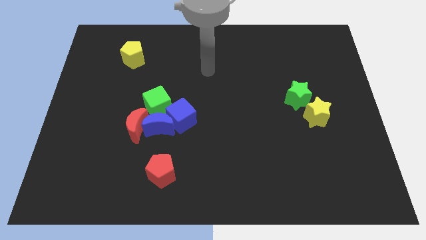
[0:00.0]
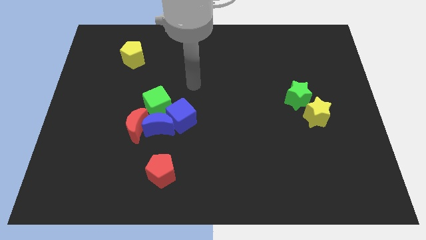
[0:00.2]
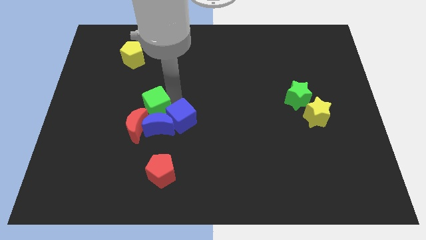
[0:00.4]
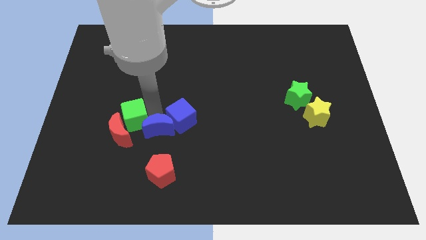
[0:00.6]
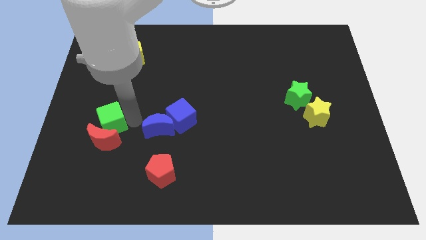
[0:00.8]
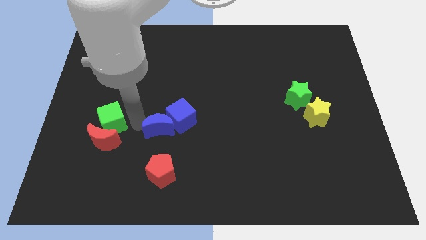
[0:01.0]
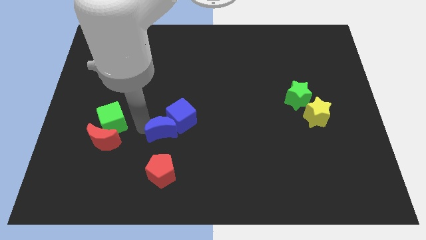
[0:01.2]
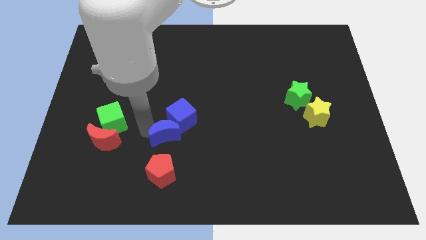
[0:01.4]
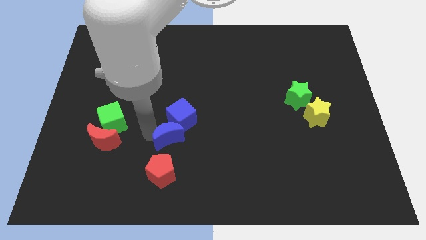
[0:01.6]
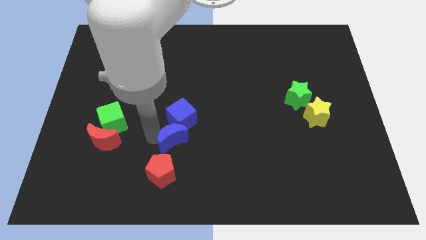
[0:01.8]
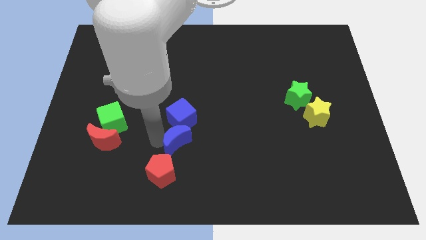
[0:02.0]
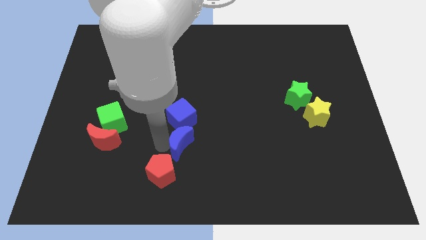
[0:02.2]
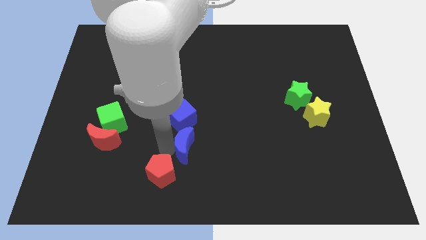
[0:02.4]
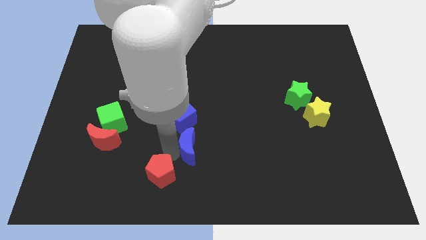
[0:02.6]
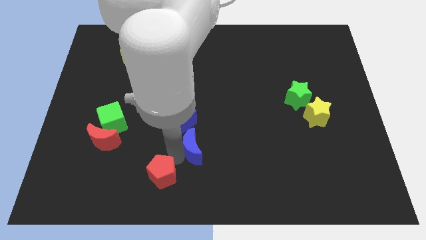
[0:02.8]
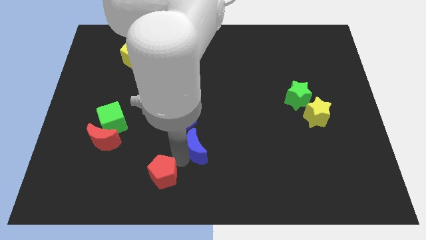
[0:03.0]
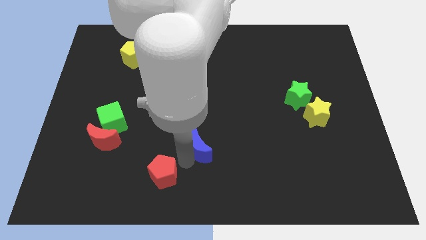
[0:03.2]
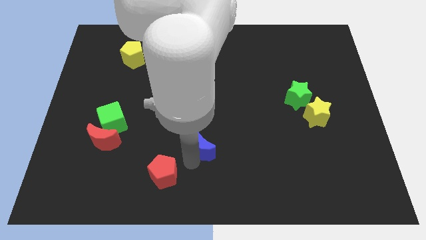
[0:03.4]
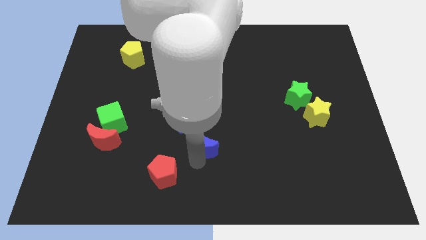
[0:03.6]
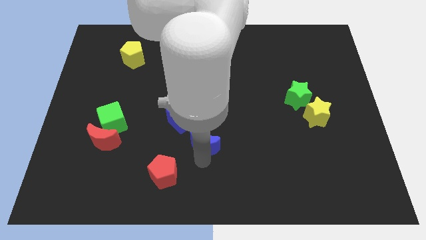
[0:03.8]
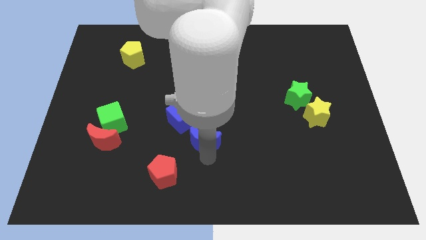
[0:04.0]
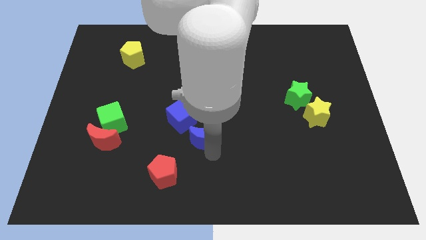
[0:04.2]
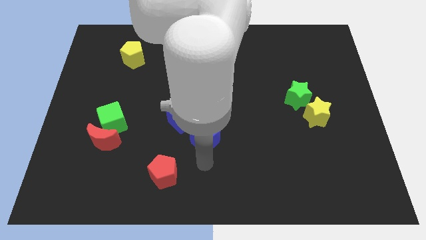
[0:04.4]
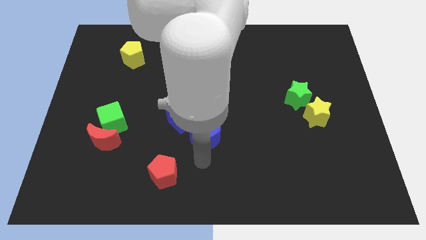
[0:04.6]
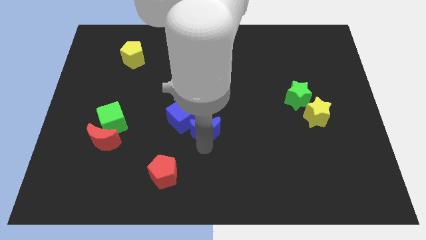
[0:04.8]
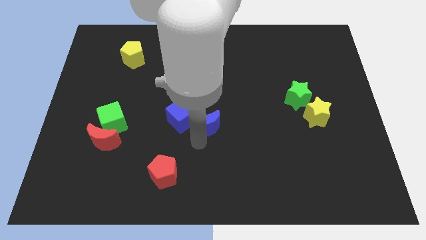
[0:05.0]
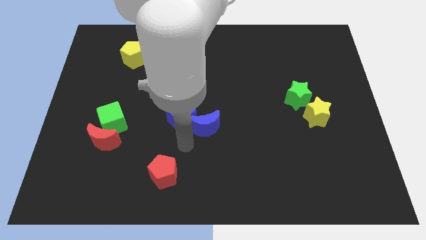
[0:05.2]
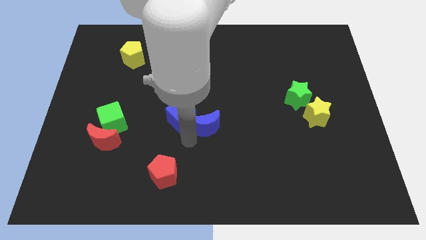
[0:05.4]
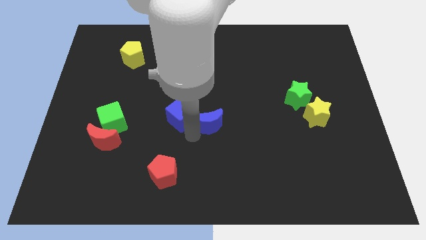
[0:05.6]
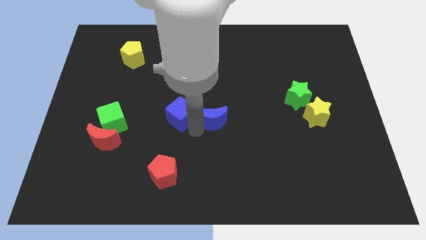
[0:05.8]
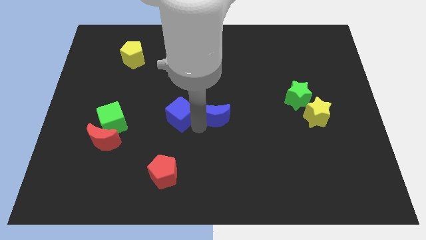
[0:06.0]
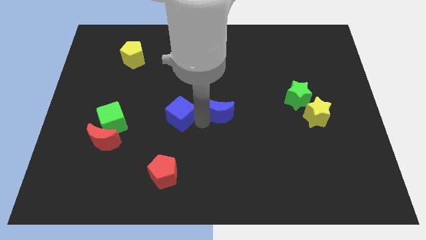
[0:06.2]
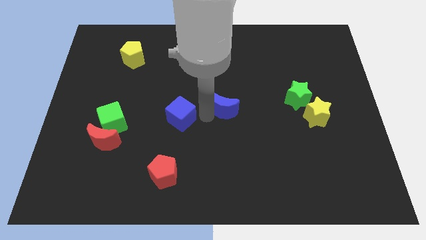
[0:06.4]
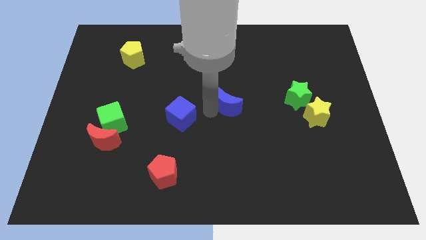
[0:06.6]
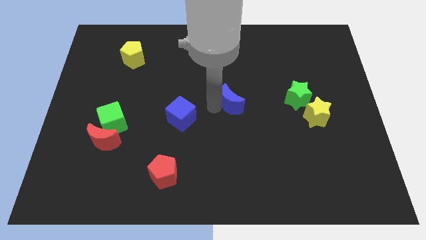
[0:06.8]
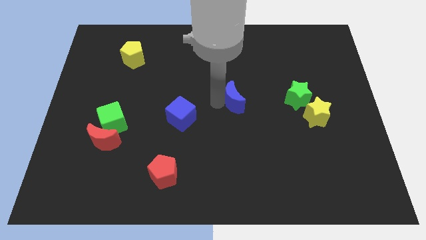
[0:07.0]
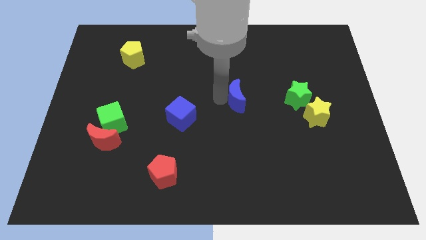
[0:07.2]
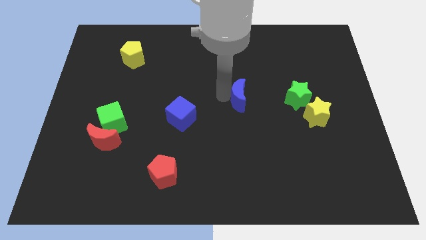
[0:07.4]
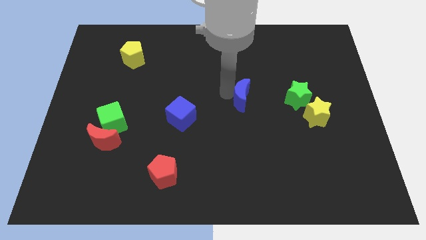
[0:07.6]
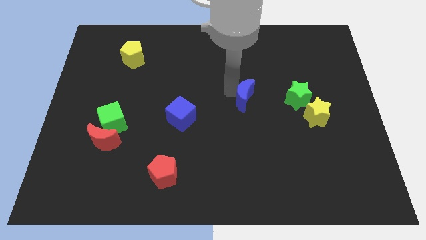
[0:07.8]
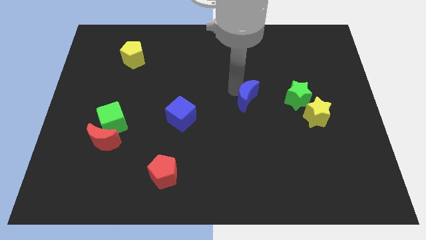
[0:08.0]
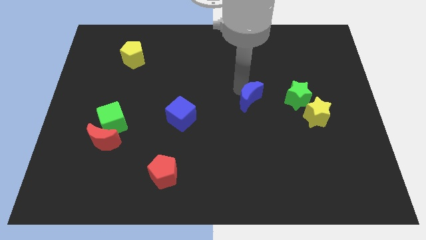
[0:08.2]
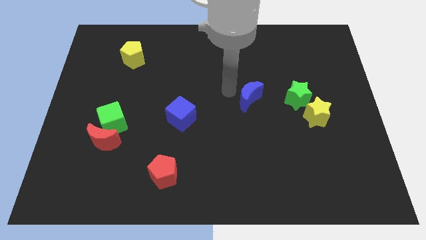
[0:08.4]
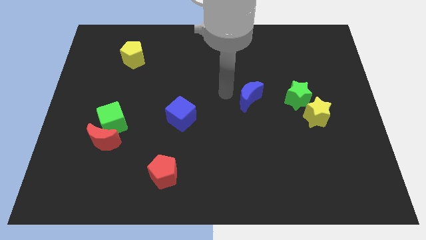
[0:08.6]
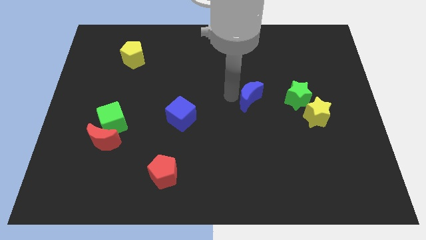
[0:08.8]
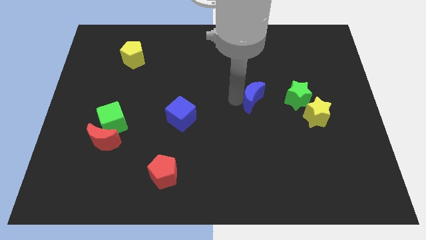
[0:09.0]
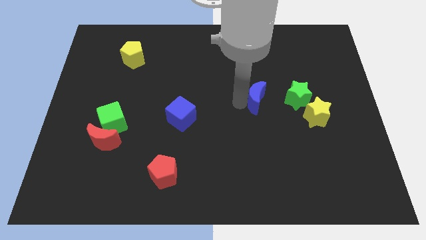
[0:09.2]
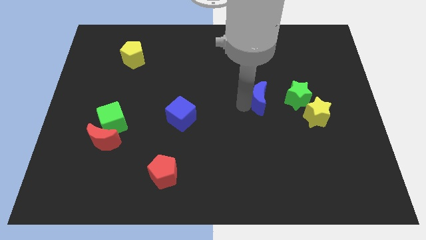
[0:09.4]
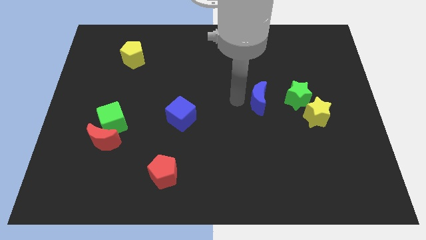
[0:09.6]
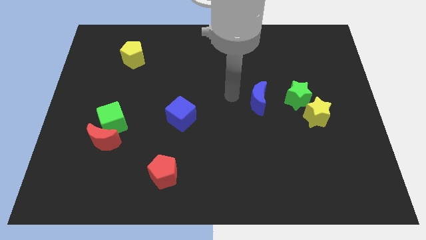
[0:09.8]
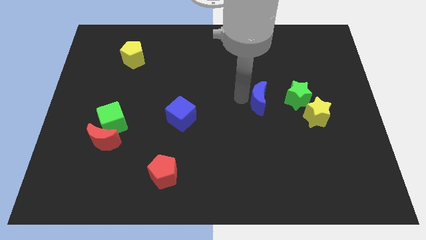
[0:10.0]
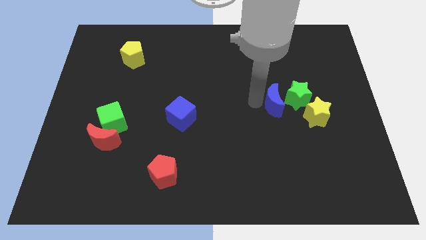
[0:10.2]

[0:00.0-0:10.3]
slide the blue moon close to the green star

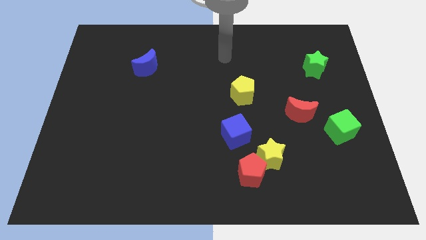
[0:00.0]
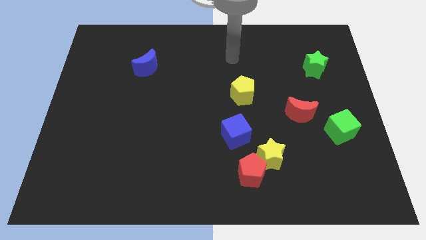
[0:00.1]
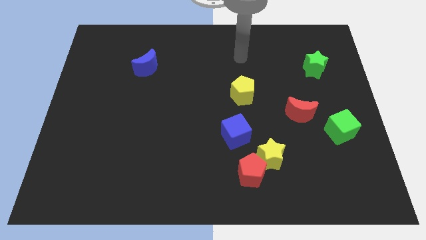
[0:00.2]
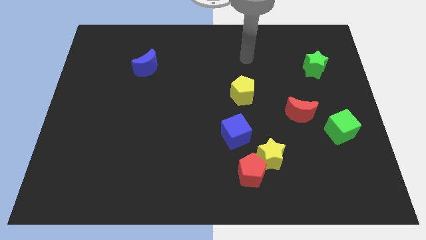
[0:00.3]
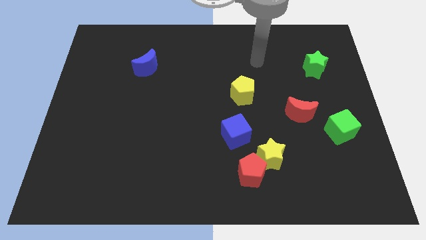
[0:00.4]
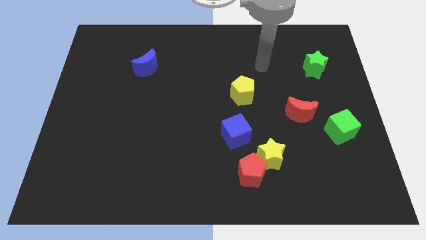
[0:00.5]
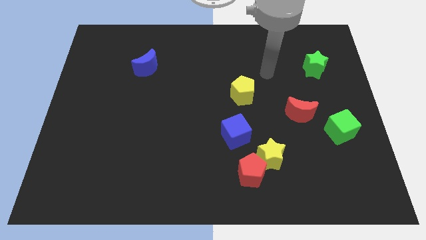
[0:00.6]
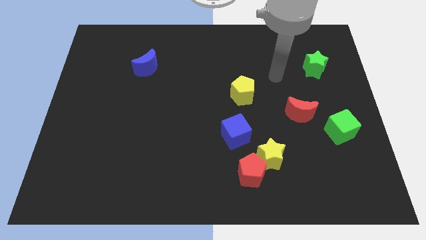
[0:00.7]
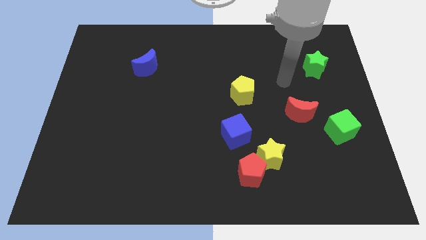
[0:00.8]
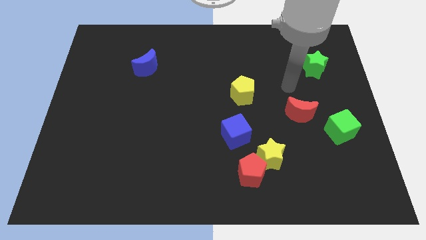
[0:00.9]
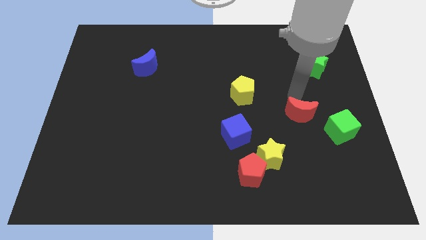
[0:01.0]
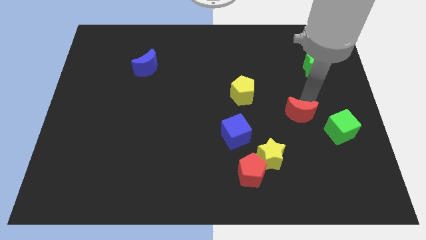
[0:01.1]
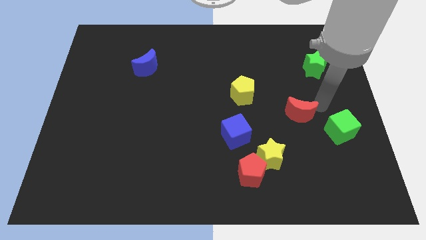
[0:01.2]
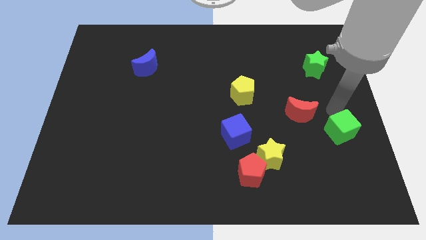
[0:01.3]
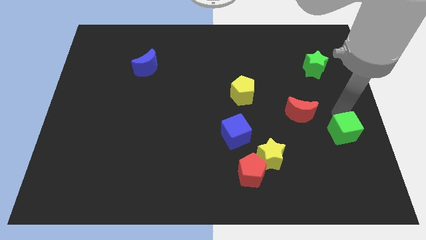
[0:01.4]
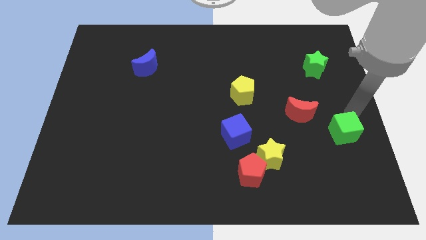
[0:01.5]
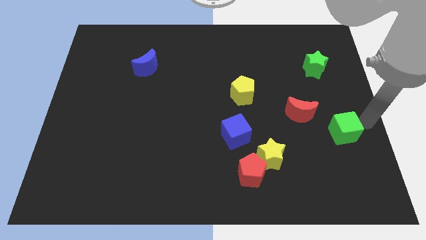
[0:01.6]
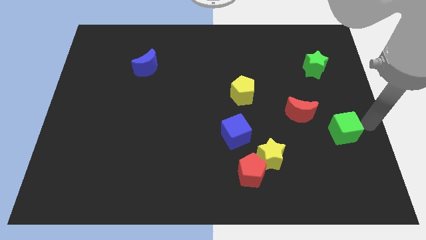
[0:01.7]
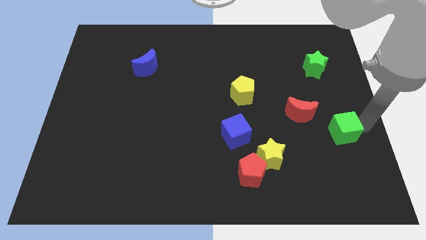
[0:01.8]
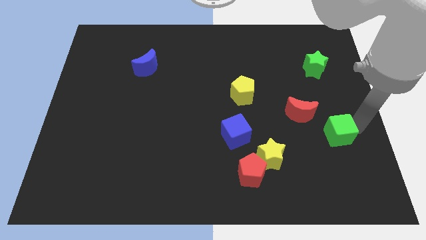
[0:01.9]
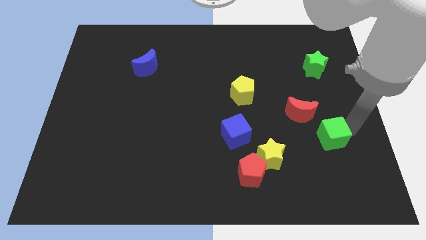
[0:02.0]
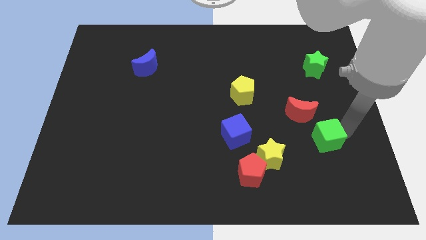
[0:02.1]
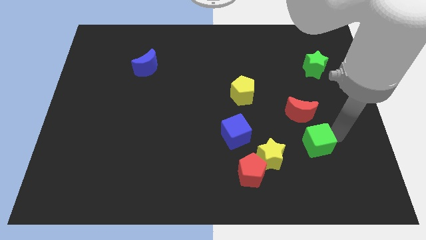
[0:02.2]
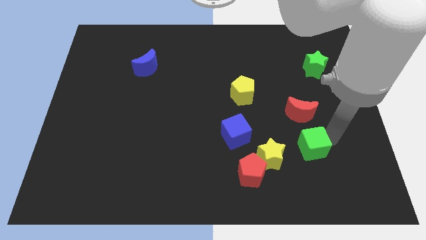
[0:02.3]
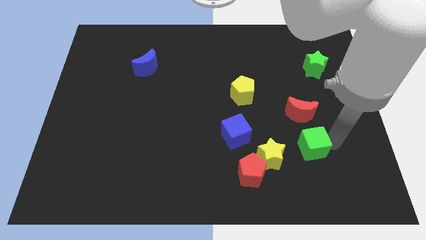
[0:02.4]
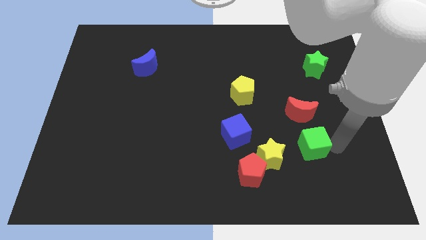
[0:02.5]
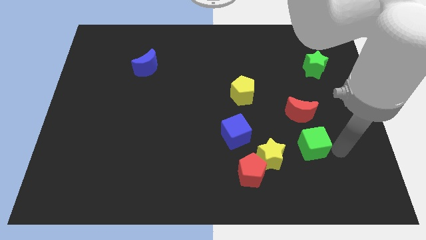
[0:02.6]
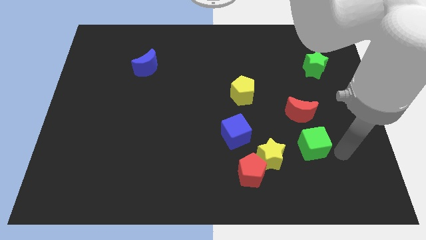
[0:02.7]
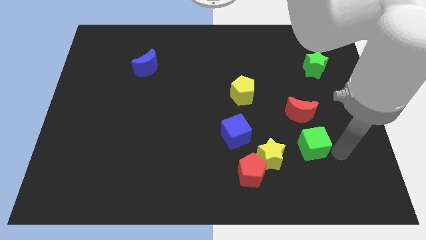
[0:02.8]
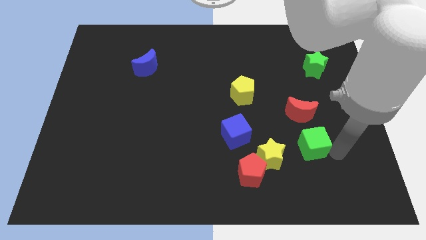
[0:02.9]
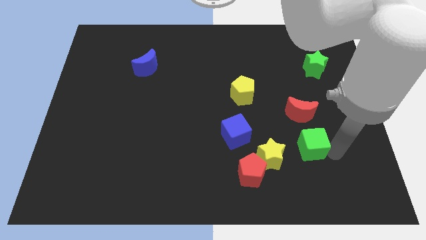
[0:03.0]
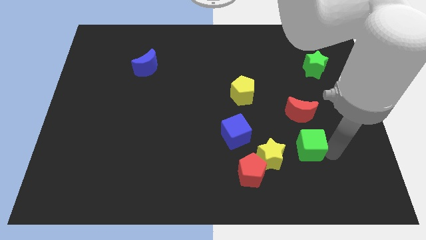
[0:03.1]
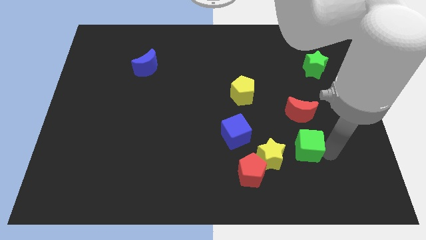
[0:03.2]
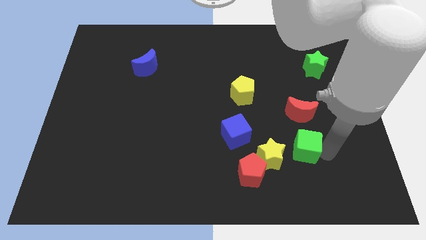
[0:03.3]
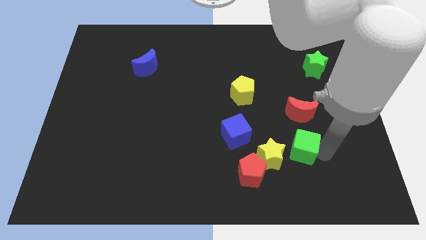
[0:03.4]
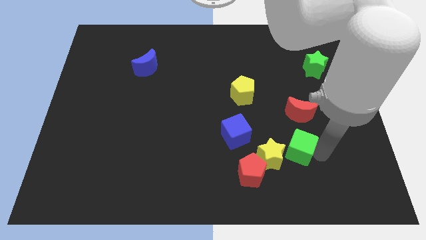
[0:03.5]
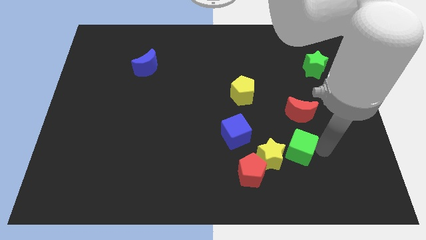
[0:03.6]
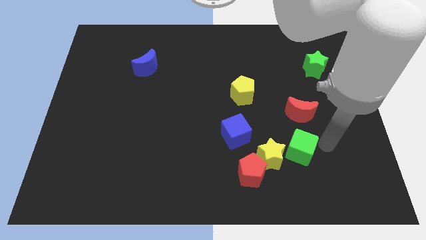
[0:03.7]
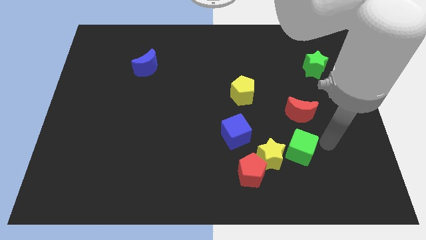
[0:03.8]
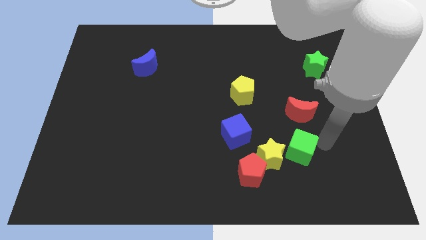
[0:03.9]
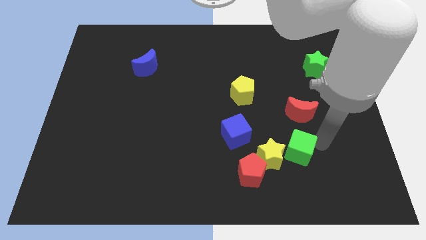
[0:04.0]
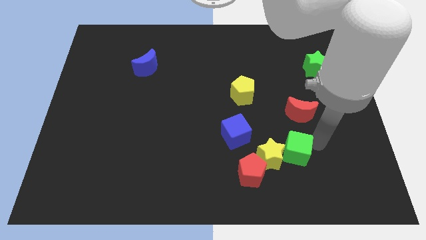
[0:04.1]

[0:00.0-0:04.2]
slide the green cube to the yellow star
